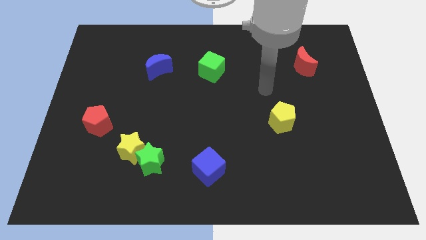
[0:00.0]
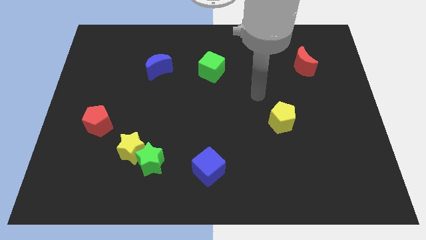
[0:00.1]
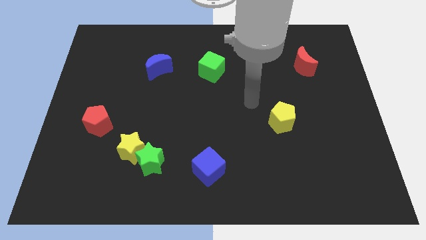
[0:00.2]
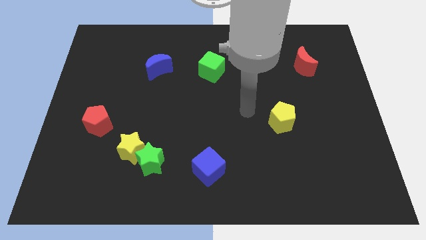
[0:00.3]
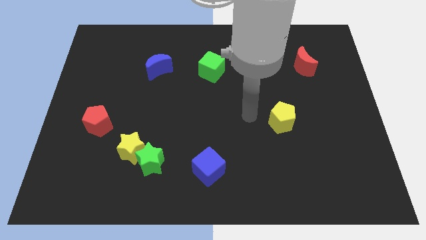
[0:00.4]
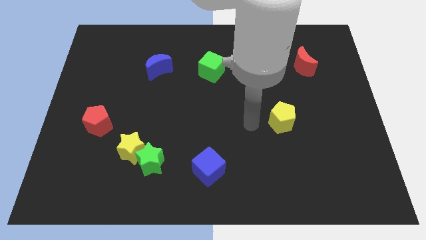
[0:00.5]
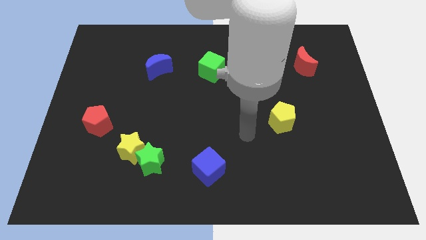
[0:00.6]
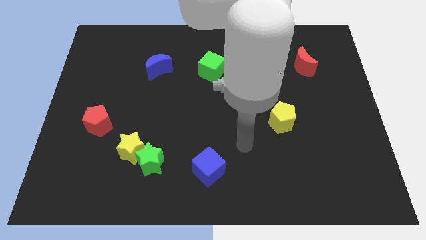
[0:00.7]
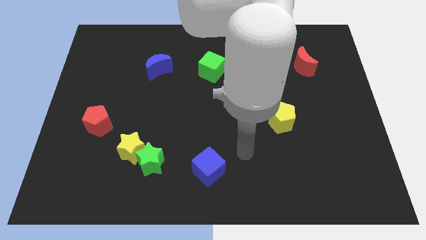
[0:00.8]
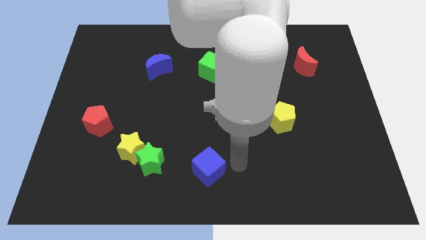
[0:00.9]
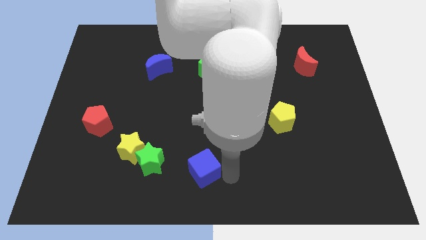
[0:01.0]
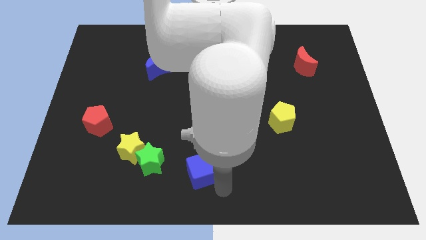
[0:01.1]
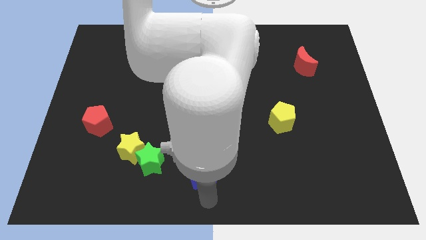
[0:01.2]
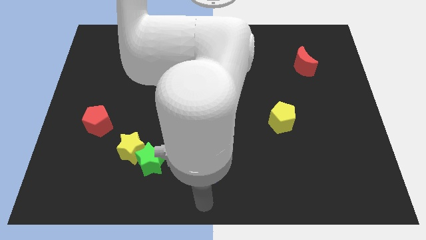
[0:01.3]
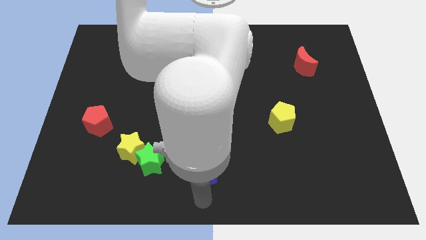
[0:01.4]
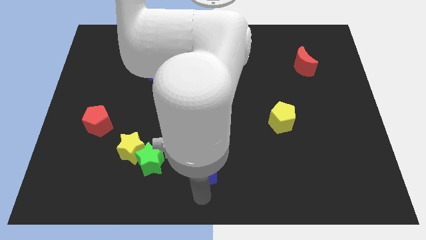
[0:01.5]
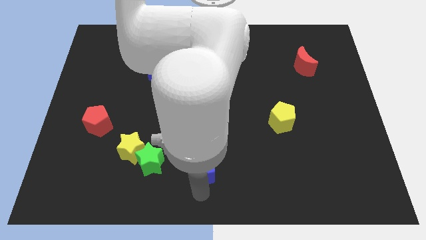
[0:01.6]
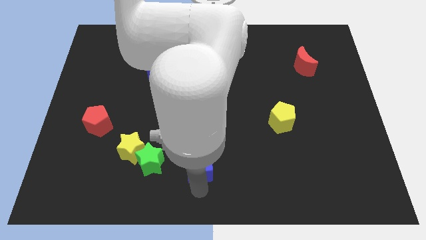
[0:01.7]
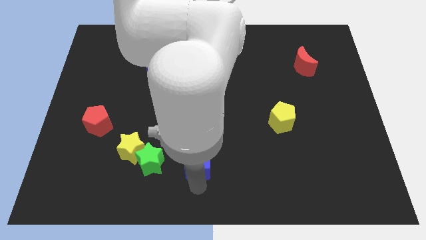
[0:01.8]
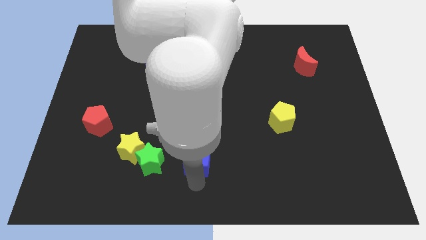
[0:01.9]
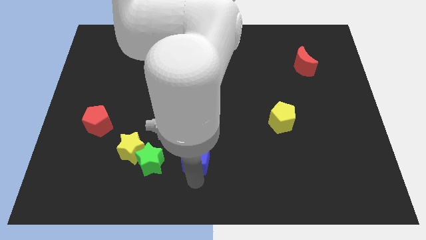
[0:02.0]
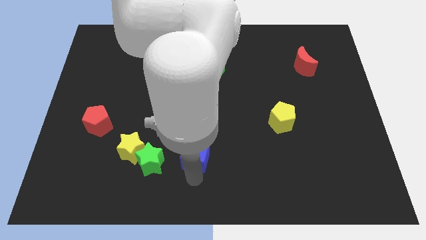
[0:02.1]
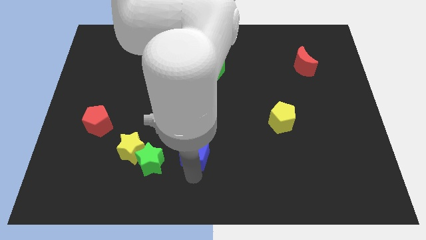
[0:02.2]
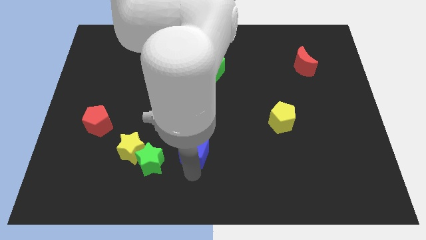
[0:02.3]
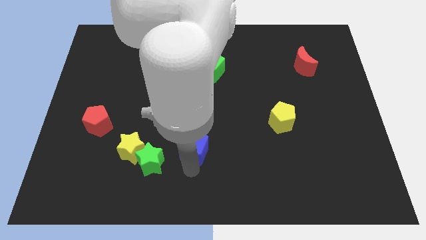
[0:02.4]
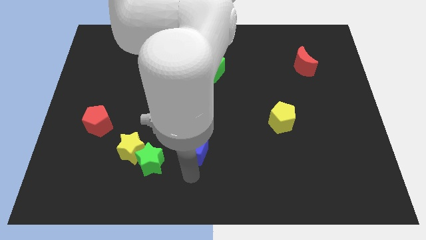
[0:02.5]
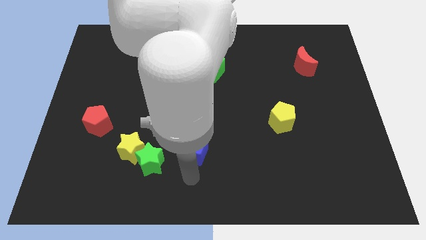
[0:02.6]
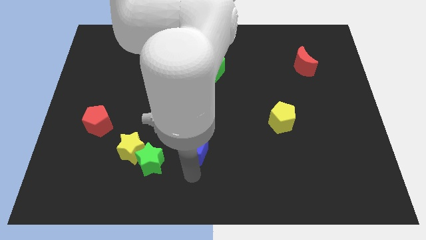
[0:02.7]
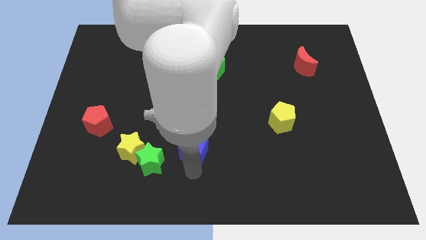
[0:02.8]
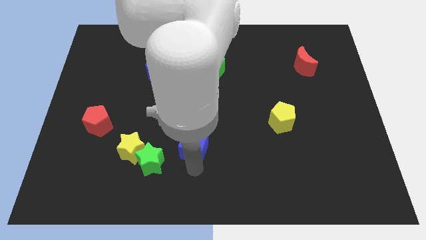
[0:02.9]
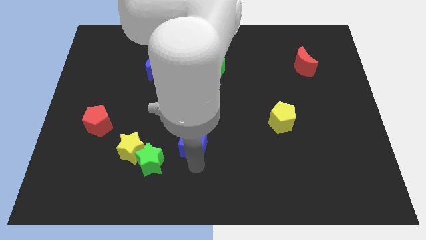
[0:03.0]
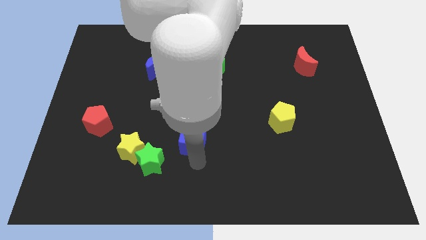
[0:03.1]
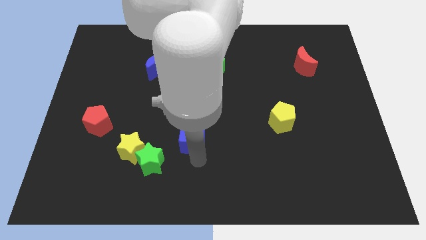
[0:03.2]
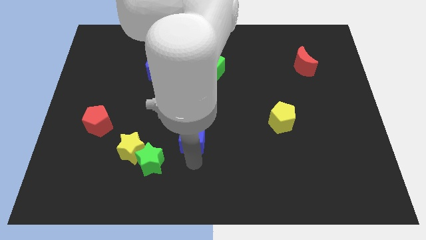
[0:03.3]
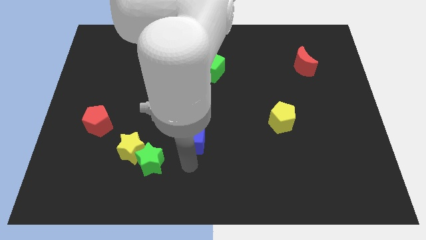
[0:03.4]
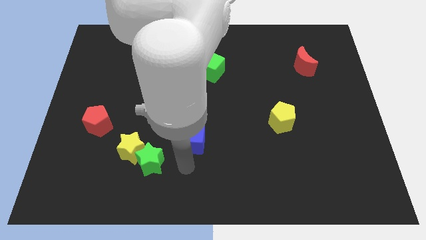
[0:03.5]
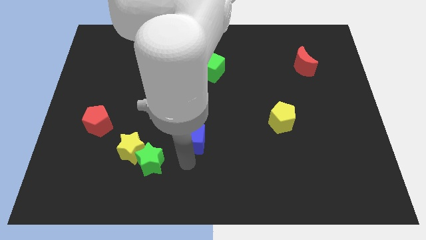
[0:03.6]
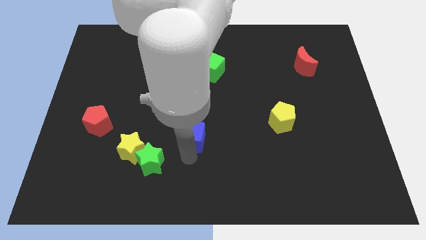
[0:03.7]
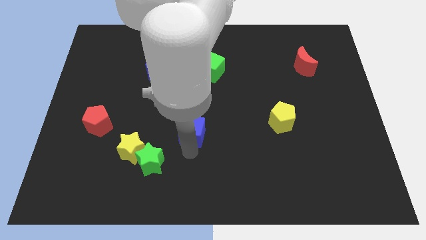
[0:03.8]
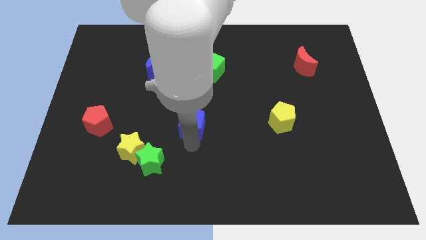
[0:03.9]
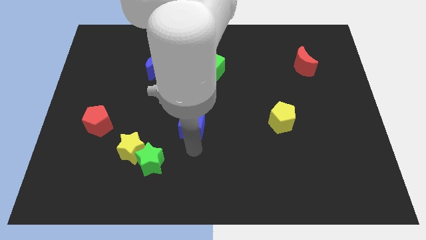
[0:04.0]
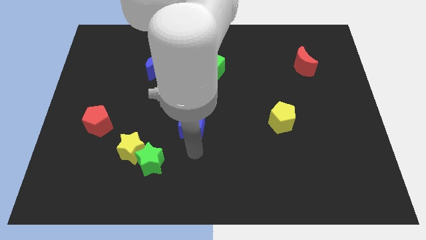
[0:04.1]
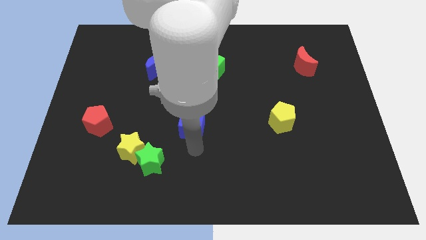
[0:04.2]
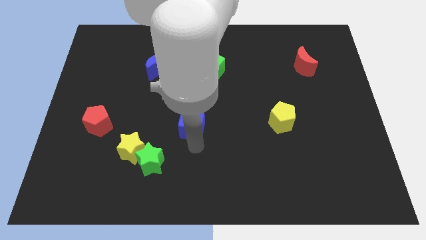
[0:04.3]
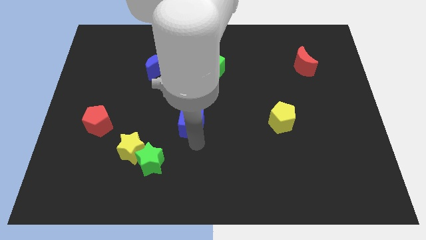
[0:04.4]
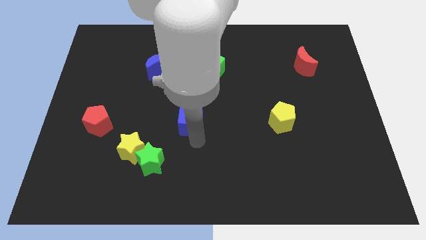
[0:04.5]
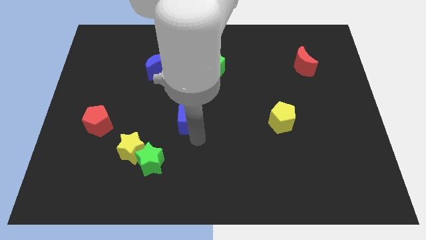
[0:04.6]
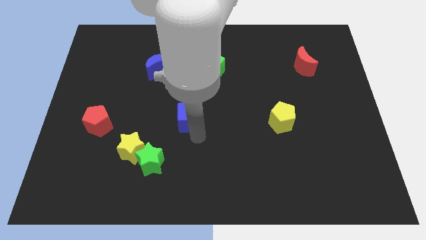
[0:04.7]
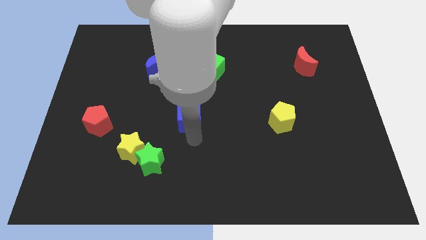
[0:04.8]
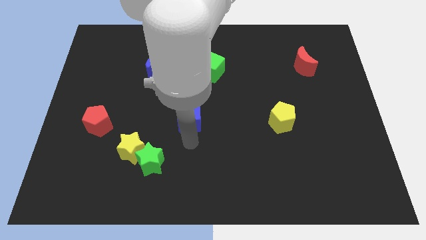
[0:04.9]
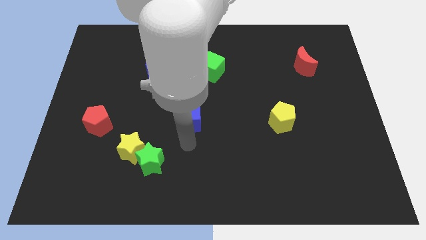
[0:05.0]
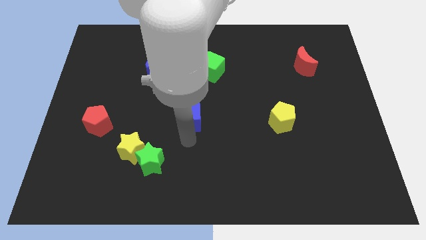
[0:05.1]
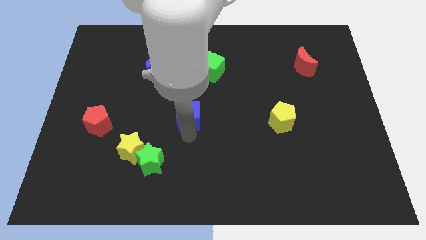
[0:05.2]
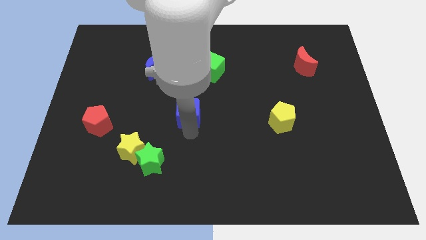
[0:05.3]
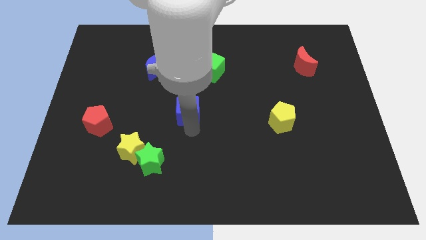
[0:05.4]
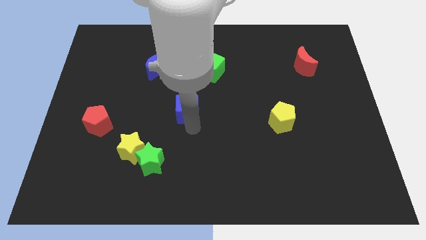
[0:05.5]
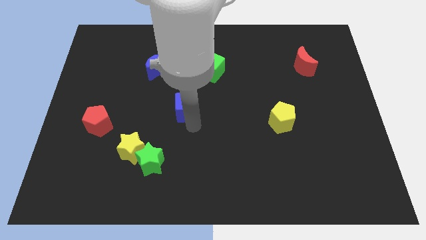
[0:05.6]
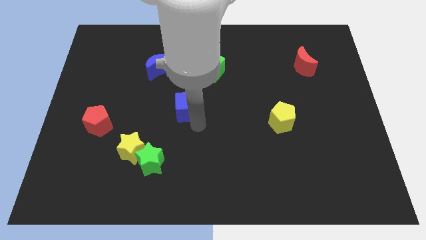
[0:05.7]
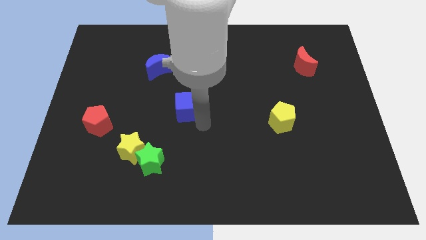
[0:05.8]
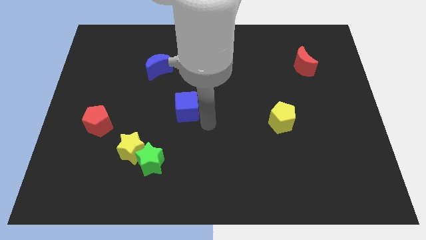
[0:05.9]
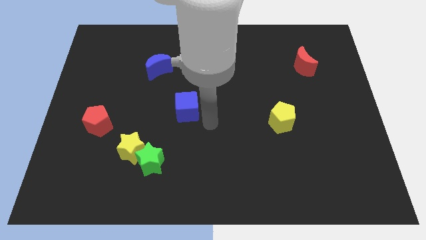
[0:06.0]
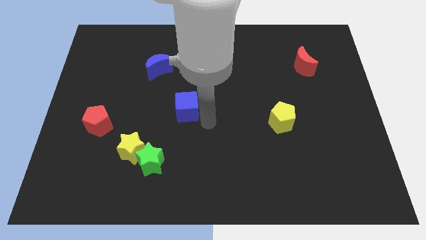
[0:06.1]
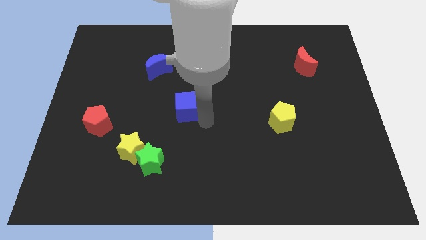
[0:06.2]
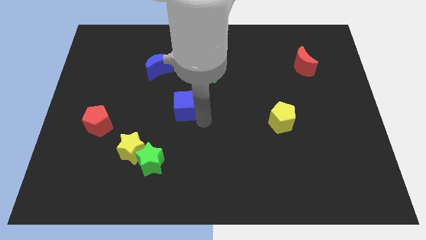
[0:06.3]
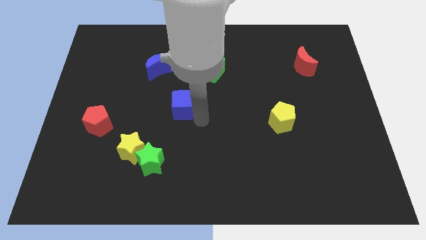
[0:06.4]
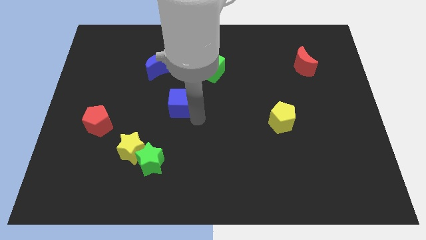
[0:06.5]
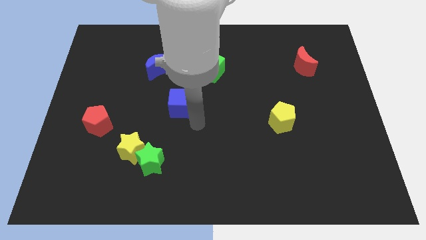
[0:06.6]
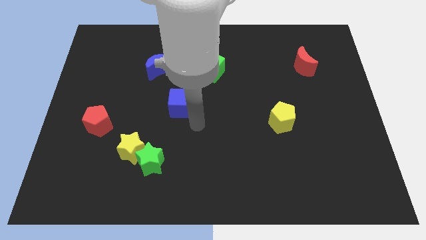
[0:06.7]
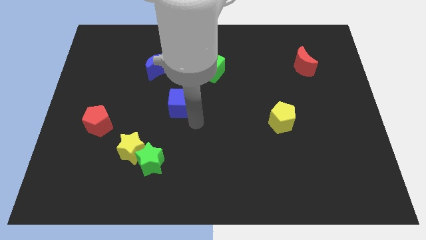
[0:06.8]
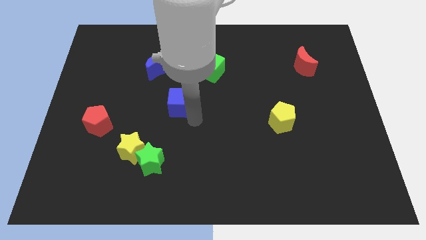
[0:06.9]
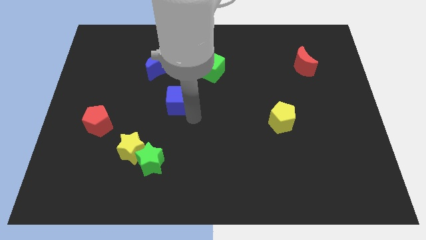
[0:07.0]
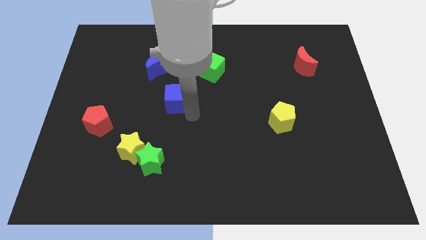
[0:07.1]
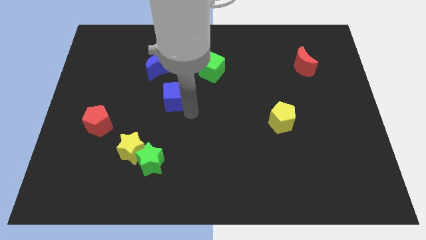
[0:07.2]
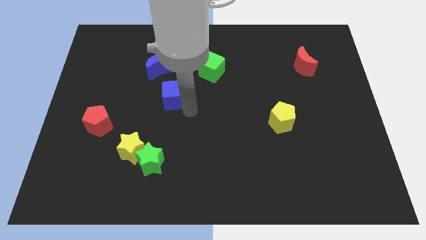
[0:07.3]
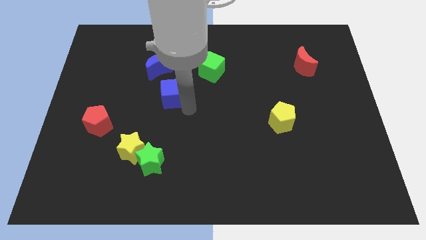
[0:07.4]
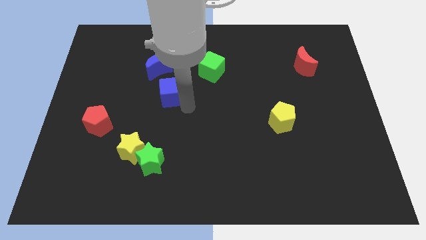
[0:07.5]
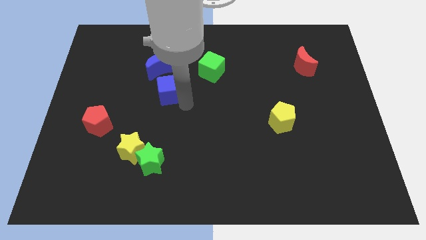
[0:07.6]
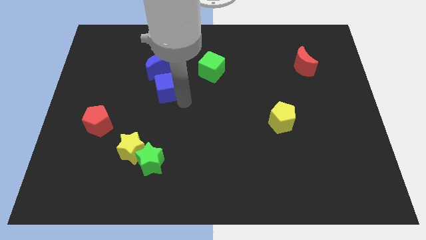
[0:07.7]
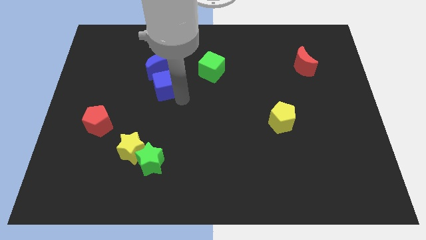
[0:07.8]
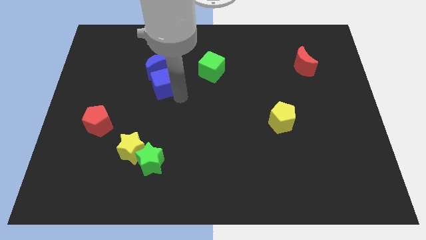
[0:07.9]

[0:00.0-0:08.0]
put the blue cube next to the blue moon
